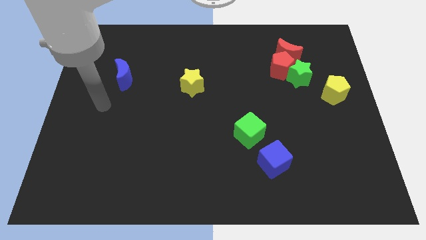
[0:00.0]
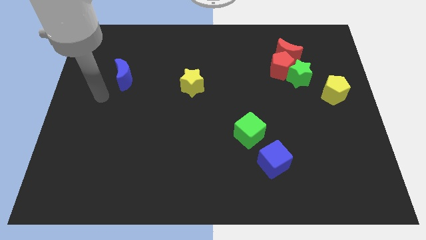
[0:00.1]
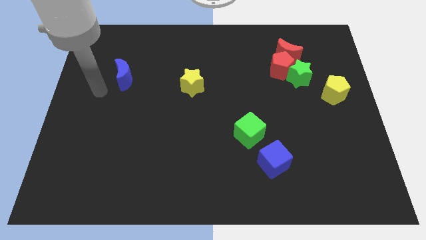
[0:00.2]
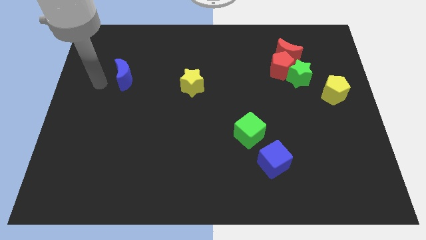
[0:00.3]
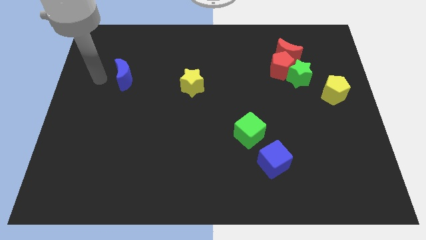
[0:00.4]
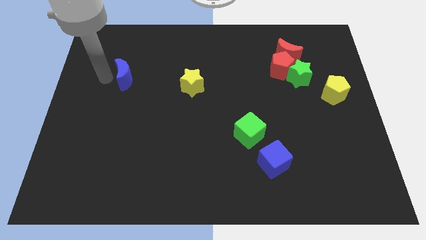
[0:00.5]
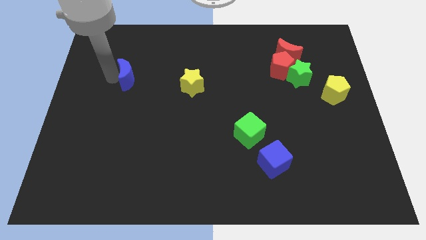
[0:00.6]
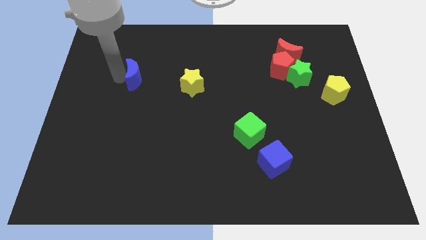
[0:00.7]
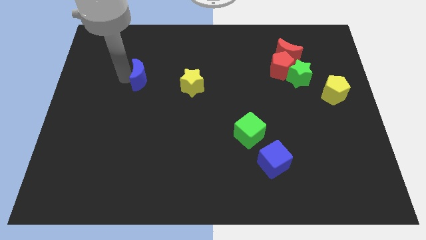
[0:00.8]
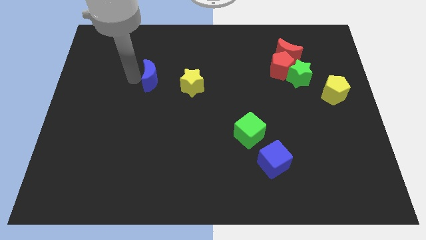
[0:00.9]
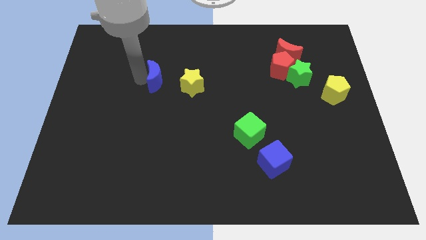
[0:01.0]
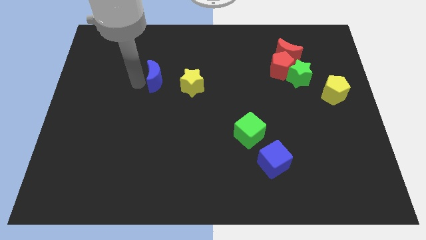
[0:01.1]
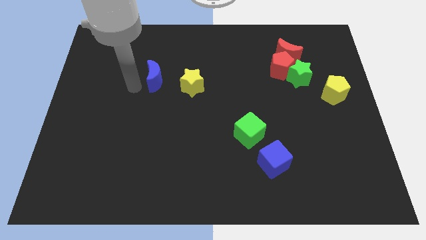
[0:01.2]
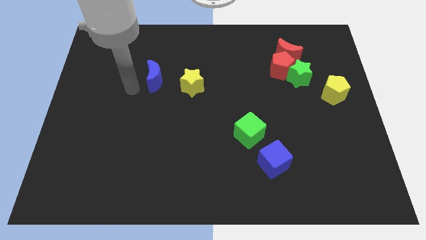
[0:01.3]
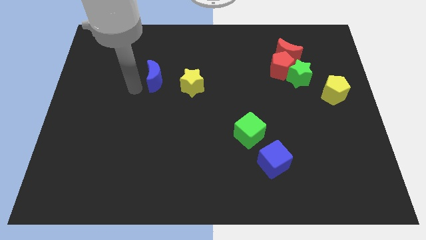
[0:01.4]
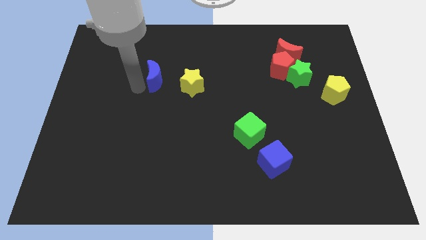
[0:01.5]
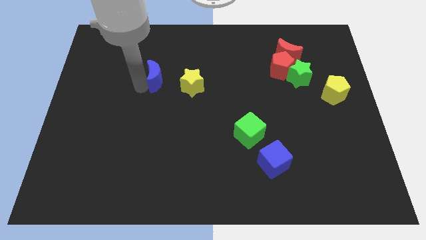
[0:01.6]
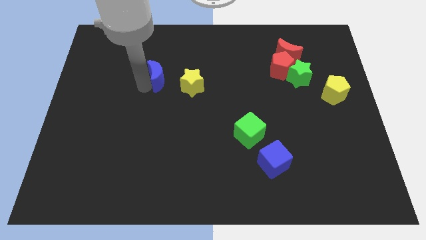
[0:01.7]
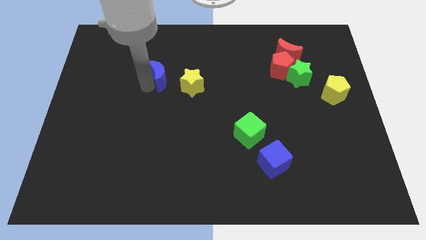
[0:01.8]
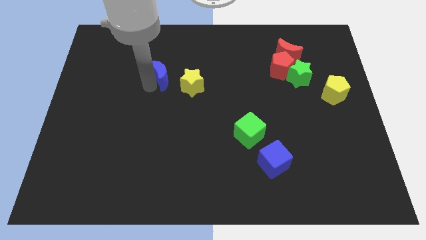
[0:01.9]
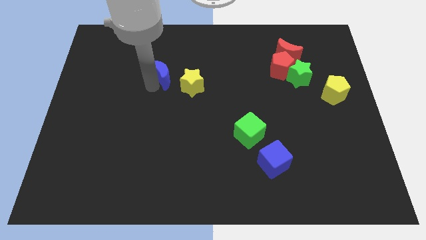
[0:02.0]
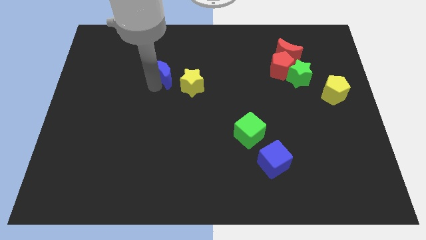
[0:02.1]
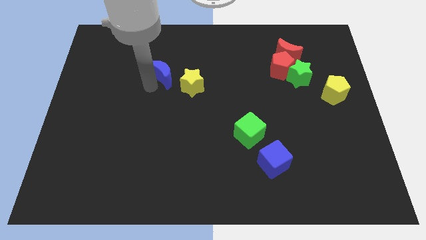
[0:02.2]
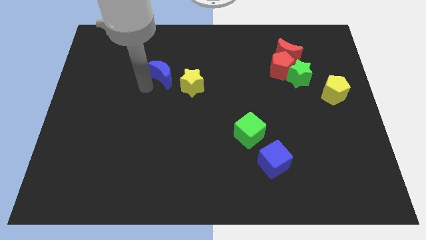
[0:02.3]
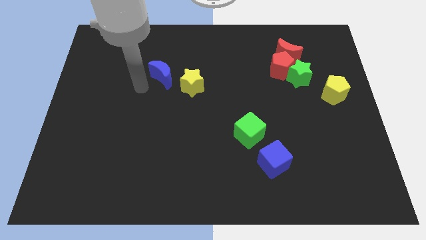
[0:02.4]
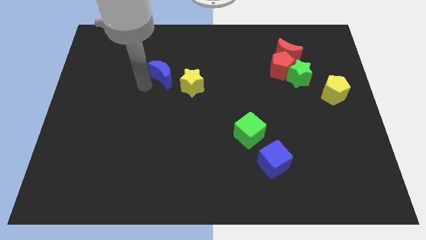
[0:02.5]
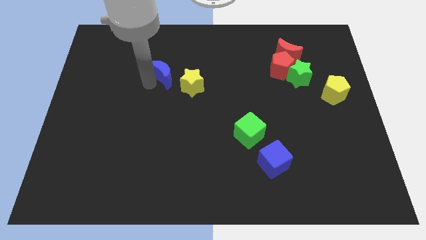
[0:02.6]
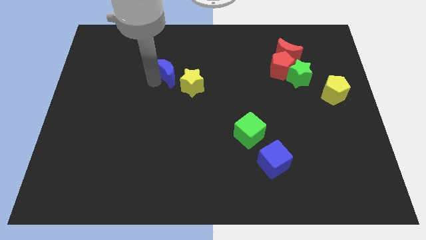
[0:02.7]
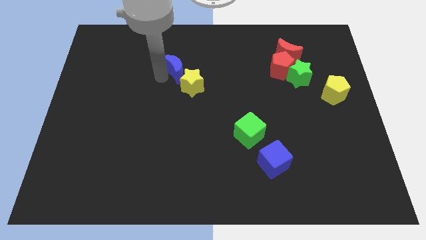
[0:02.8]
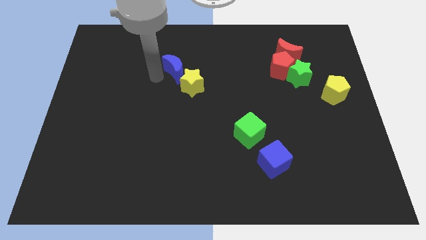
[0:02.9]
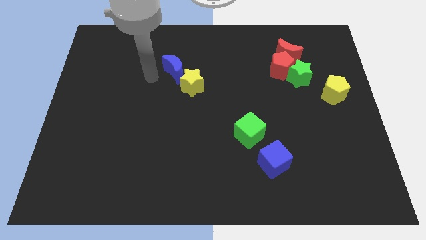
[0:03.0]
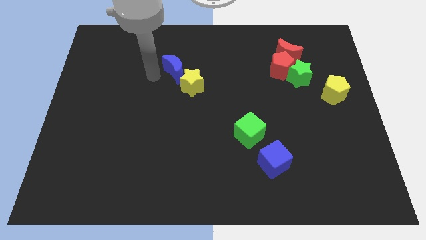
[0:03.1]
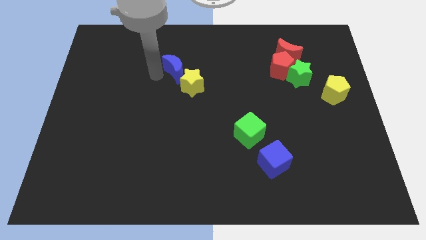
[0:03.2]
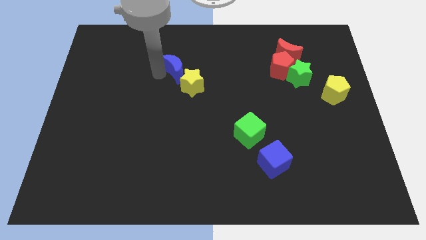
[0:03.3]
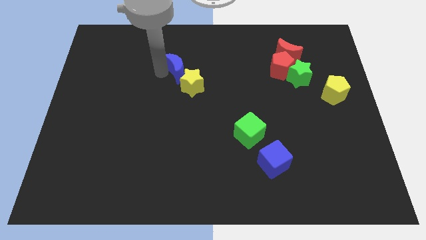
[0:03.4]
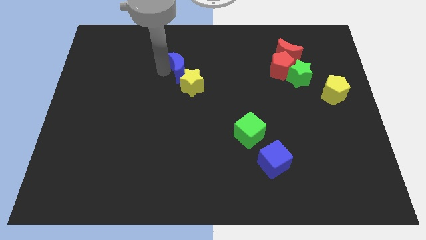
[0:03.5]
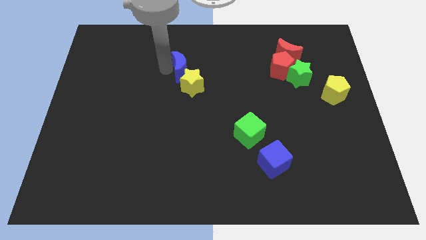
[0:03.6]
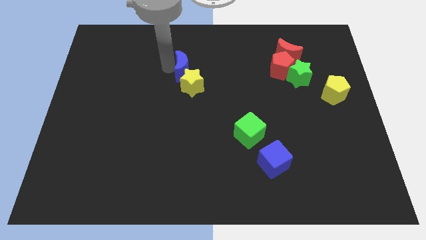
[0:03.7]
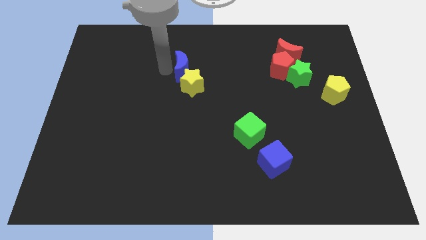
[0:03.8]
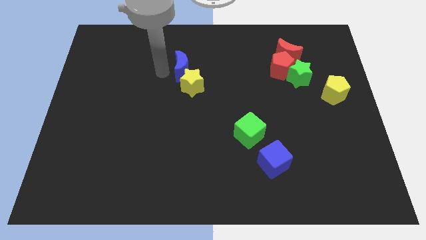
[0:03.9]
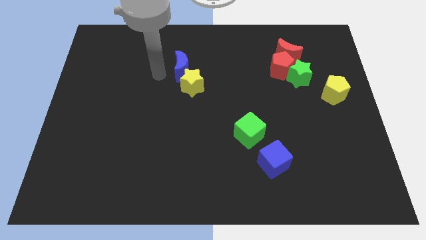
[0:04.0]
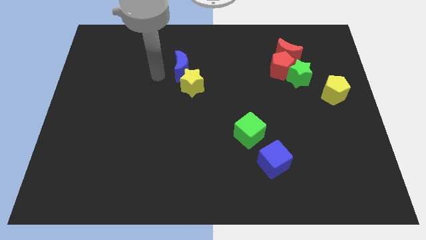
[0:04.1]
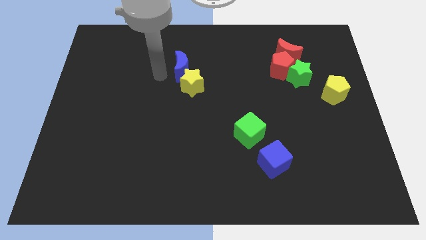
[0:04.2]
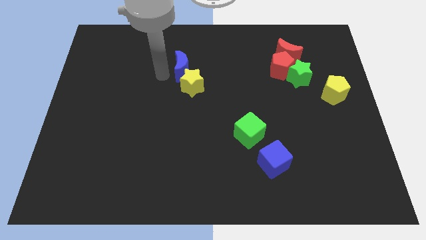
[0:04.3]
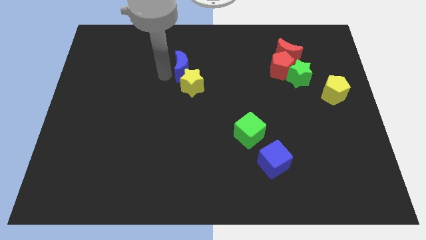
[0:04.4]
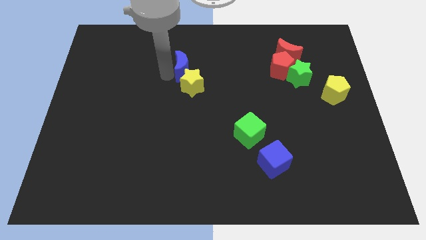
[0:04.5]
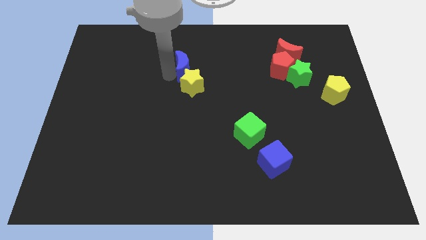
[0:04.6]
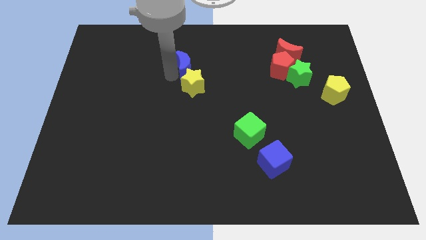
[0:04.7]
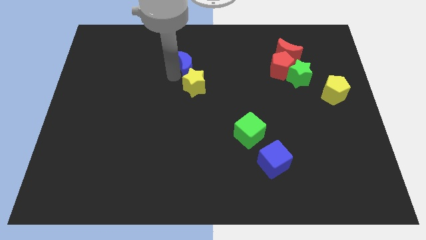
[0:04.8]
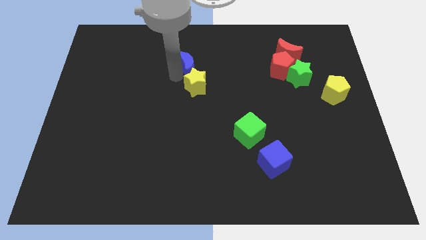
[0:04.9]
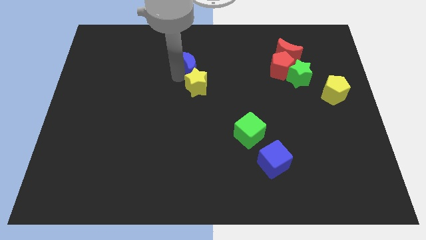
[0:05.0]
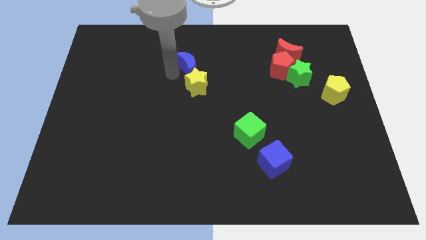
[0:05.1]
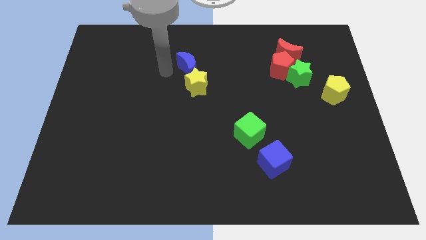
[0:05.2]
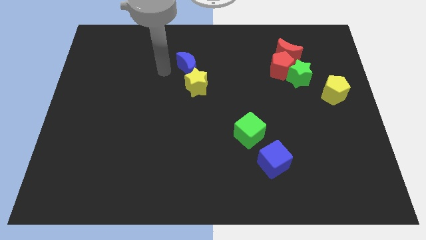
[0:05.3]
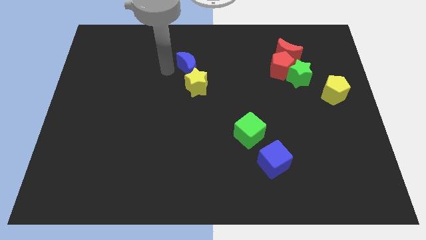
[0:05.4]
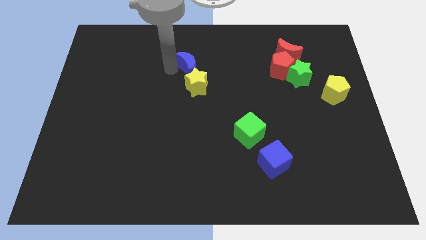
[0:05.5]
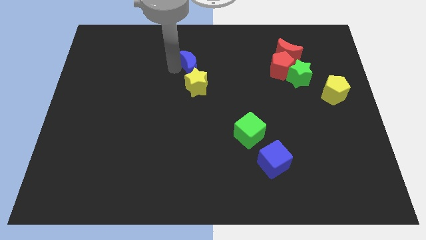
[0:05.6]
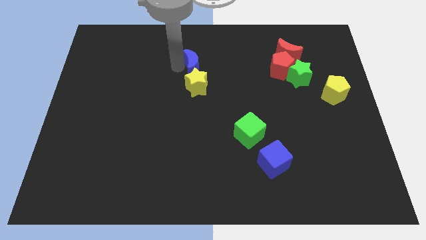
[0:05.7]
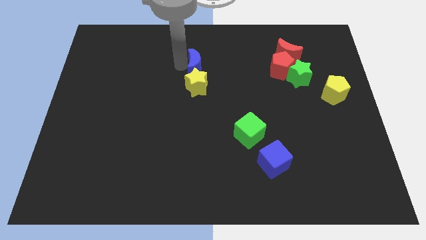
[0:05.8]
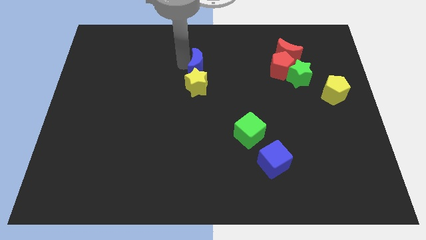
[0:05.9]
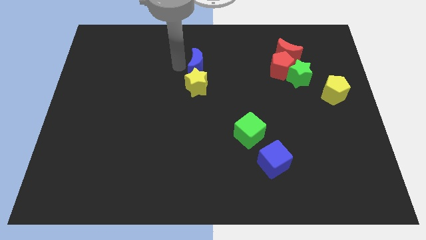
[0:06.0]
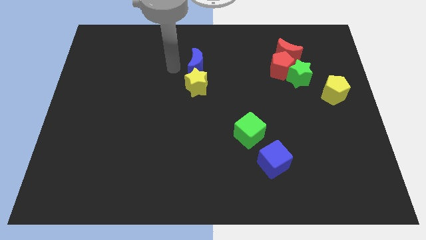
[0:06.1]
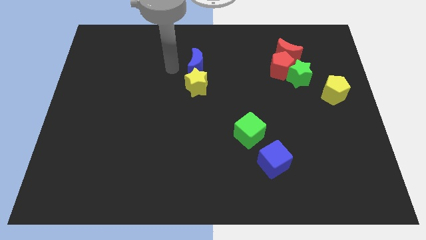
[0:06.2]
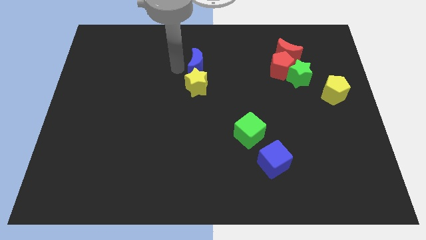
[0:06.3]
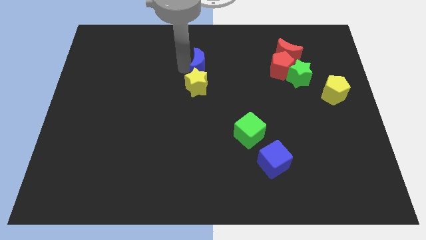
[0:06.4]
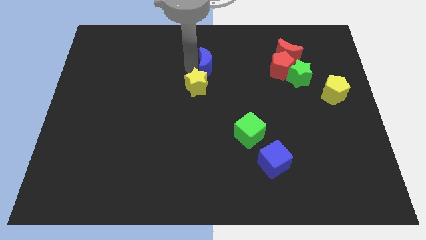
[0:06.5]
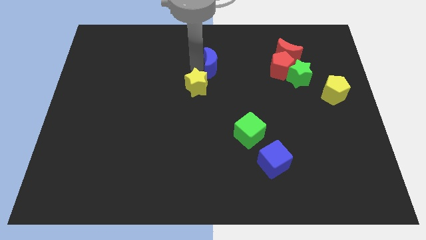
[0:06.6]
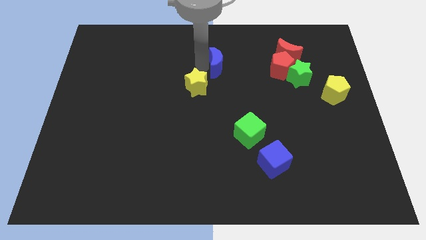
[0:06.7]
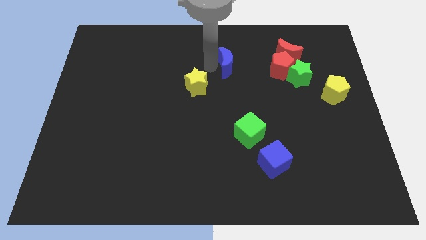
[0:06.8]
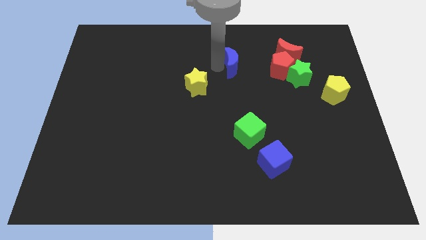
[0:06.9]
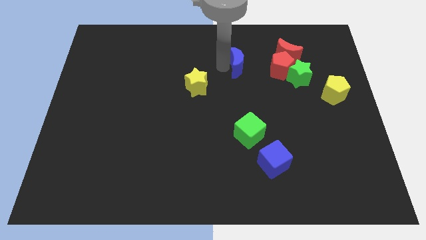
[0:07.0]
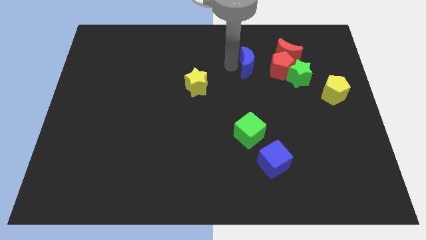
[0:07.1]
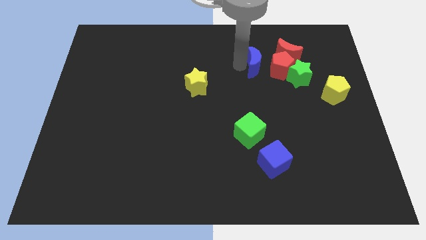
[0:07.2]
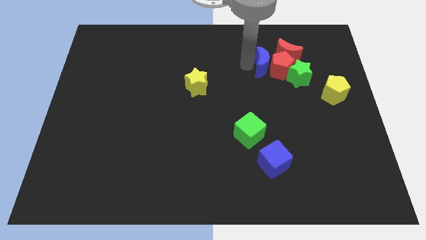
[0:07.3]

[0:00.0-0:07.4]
move the blue moon close to the red pentagon
